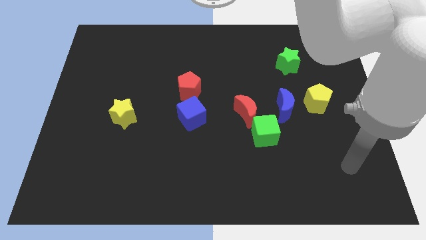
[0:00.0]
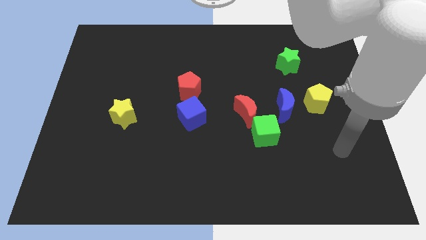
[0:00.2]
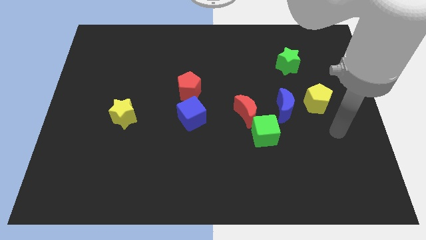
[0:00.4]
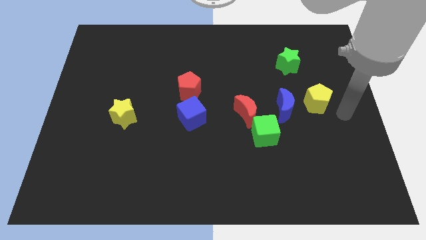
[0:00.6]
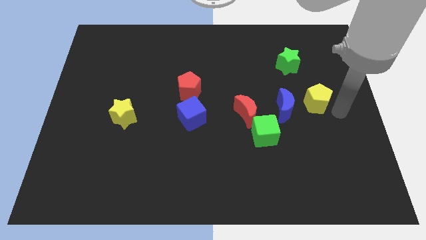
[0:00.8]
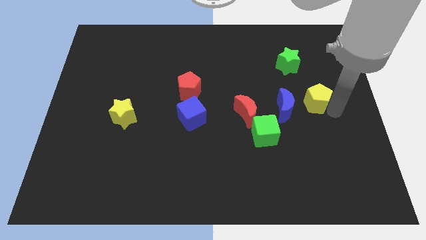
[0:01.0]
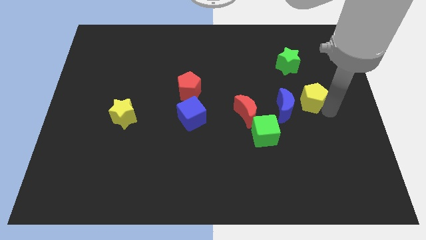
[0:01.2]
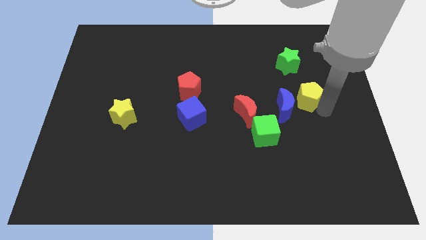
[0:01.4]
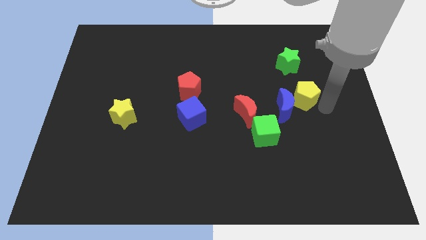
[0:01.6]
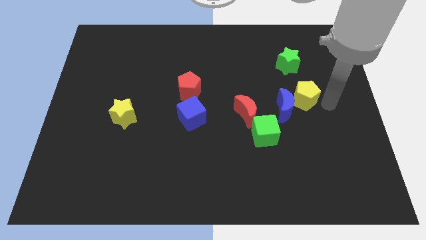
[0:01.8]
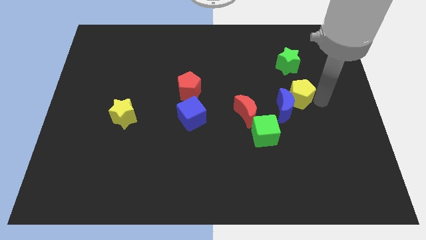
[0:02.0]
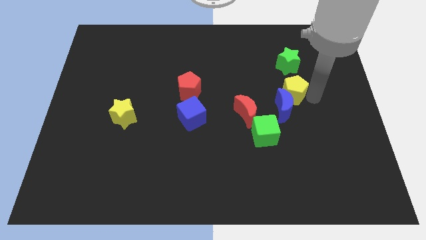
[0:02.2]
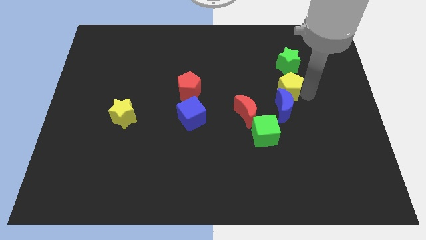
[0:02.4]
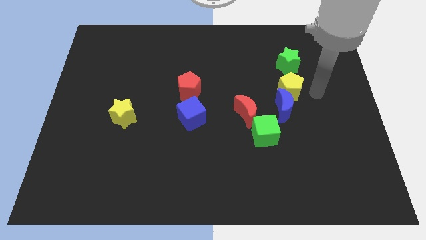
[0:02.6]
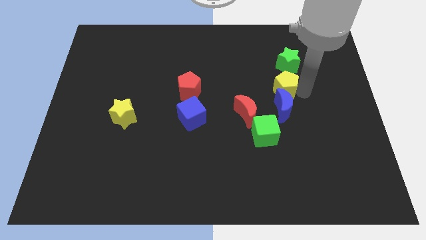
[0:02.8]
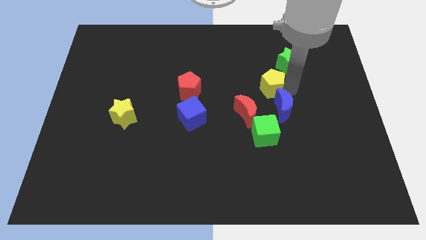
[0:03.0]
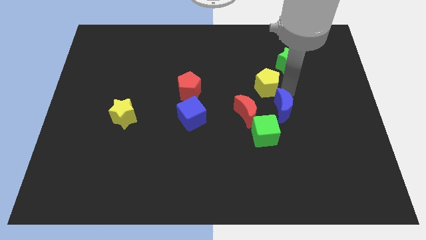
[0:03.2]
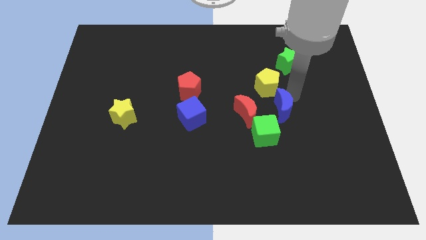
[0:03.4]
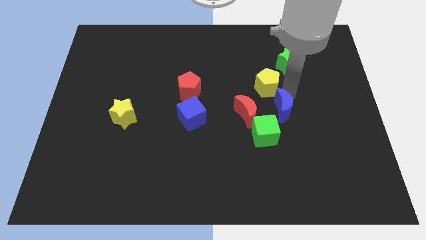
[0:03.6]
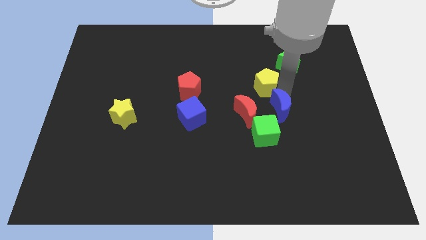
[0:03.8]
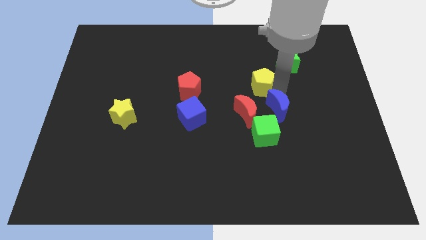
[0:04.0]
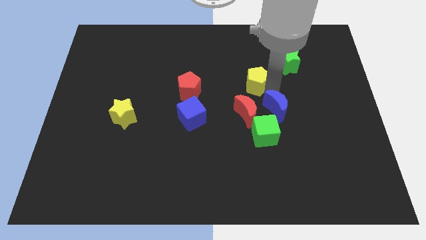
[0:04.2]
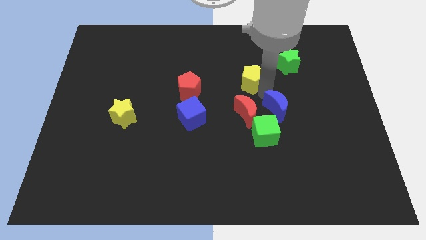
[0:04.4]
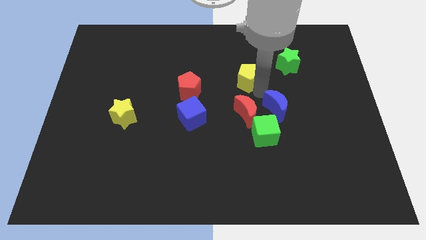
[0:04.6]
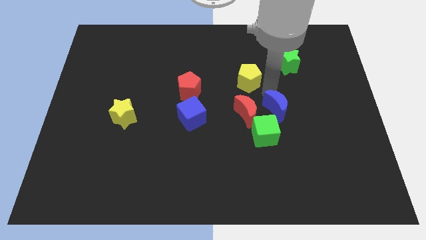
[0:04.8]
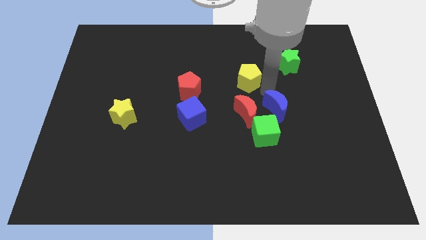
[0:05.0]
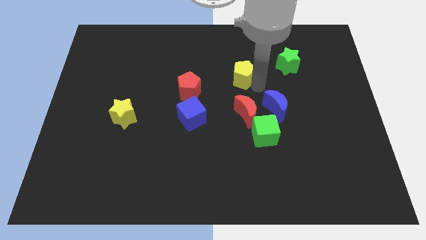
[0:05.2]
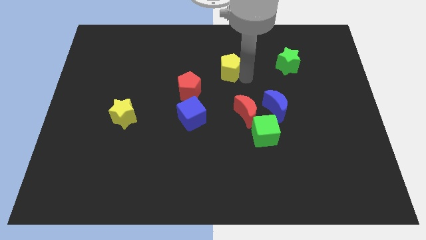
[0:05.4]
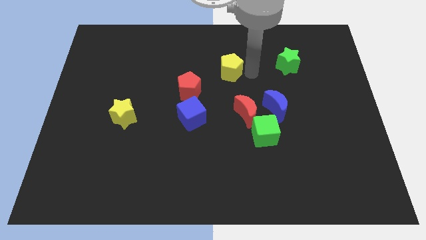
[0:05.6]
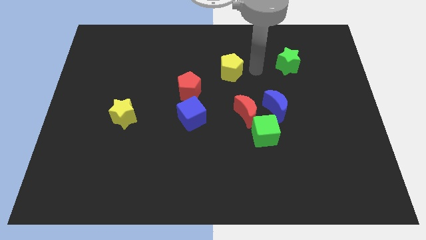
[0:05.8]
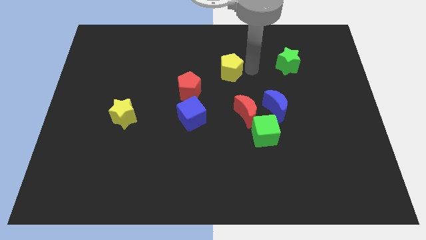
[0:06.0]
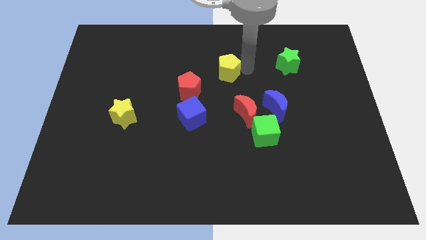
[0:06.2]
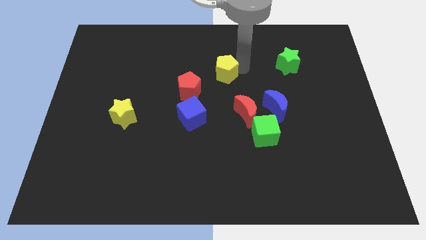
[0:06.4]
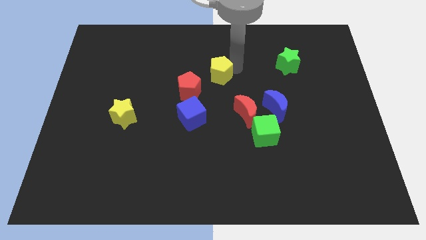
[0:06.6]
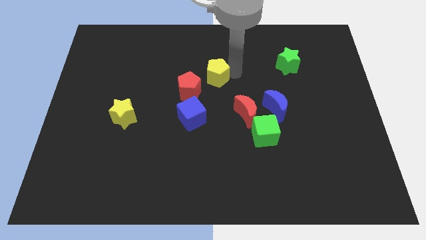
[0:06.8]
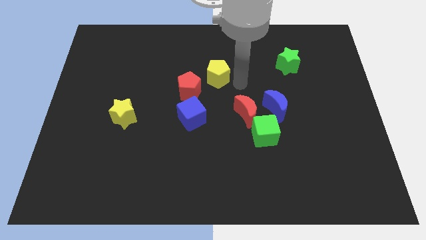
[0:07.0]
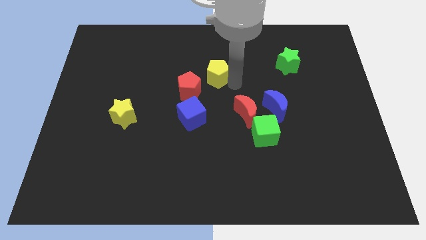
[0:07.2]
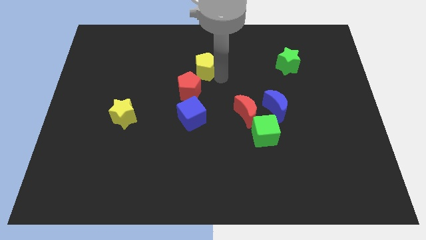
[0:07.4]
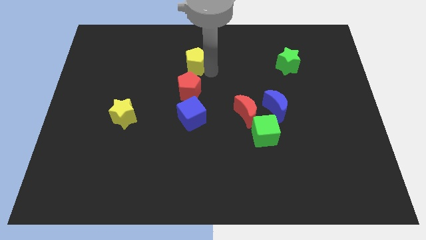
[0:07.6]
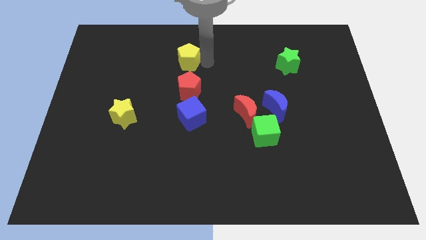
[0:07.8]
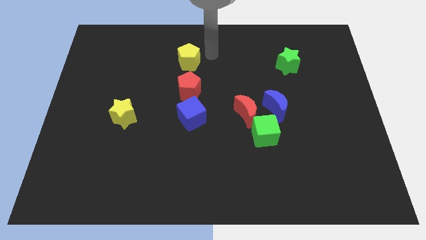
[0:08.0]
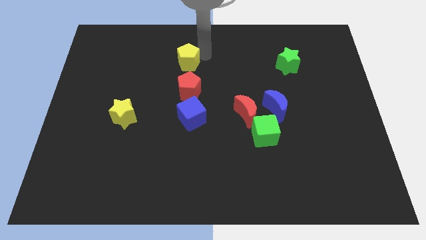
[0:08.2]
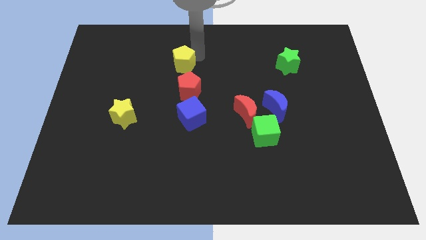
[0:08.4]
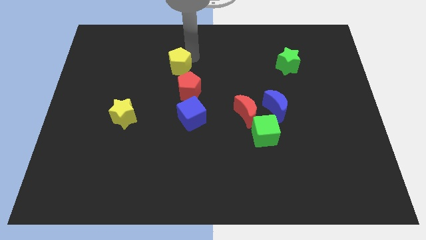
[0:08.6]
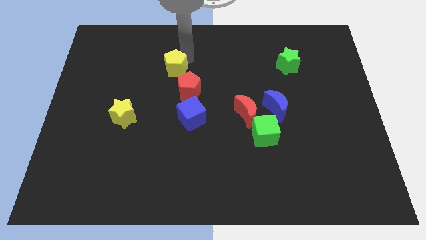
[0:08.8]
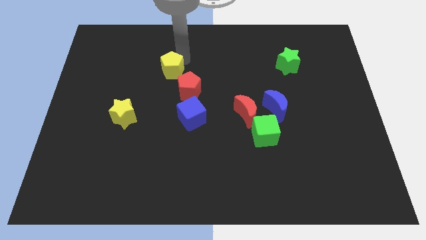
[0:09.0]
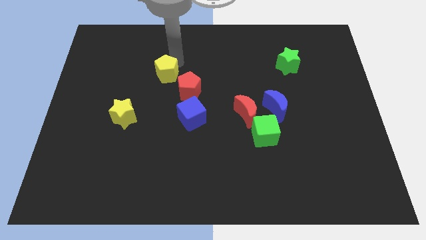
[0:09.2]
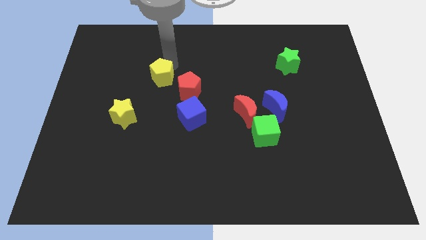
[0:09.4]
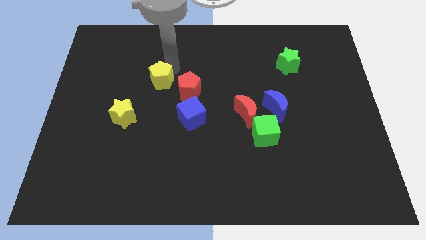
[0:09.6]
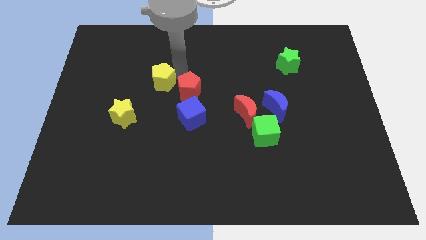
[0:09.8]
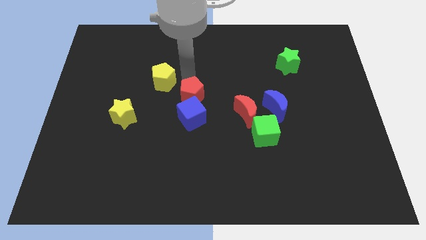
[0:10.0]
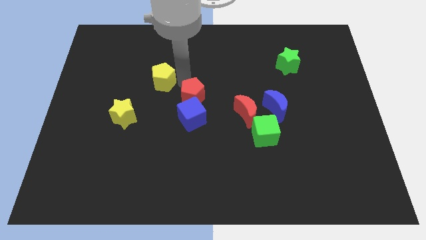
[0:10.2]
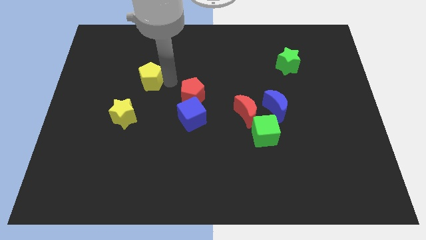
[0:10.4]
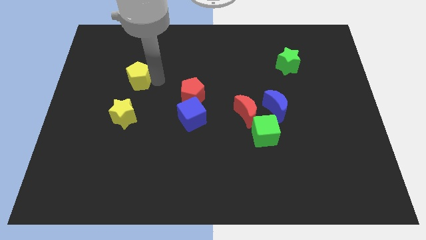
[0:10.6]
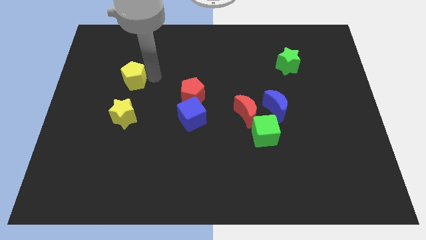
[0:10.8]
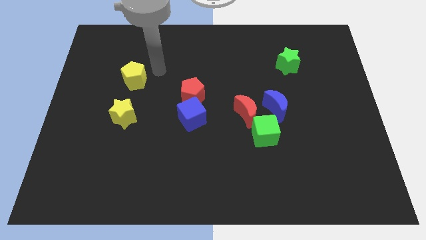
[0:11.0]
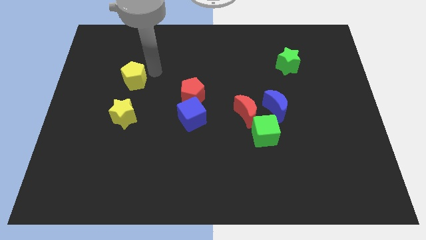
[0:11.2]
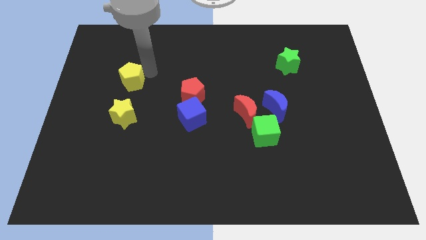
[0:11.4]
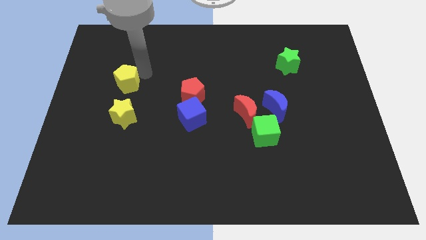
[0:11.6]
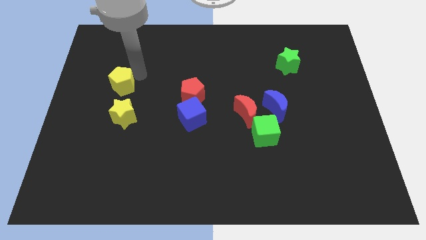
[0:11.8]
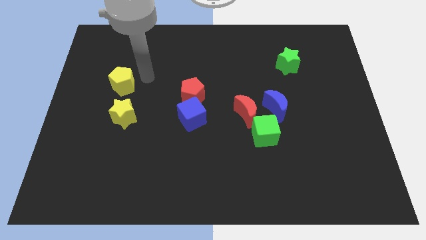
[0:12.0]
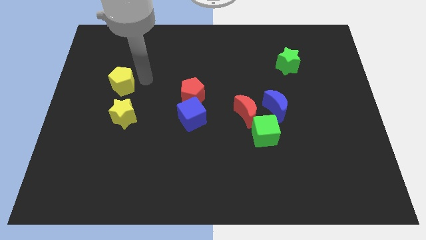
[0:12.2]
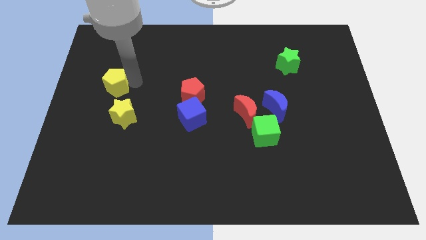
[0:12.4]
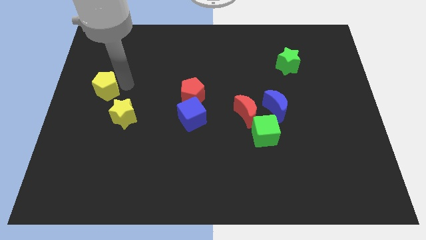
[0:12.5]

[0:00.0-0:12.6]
put the yellow pentagon to the left side
